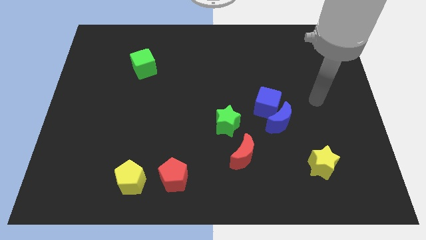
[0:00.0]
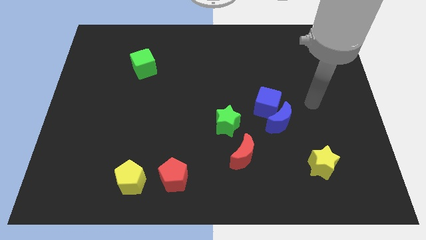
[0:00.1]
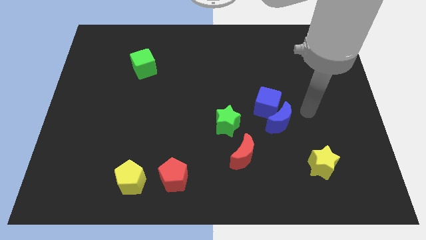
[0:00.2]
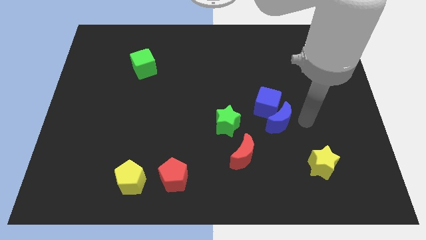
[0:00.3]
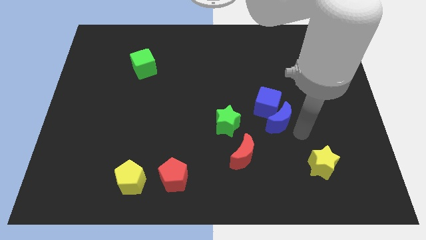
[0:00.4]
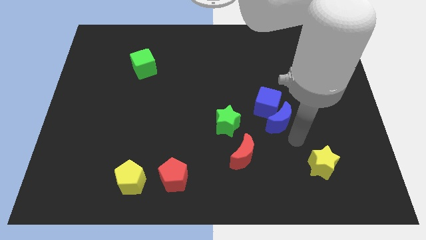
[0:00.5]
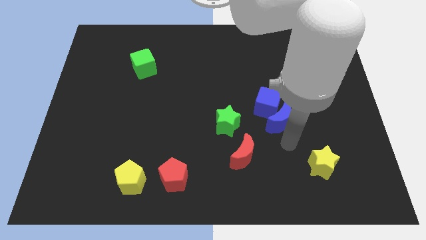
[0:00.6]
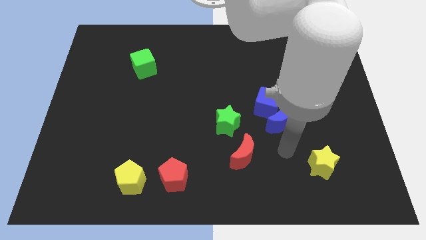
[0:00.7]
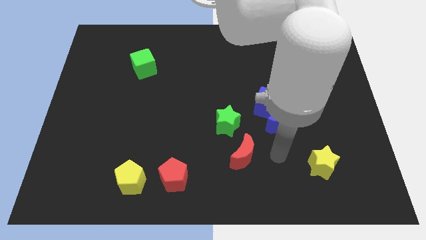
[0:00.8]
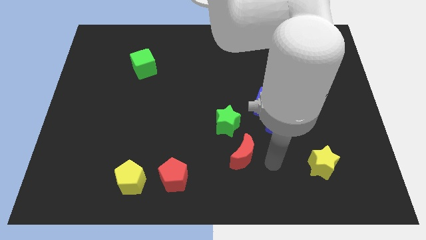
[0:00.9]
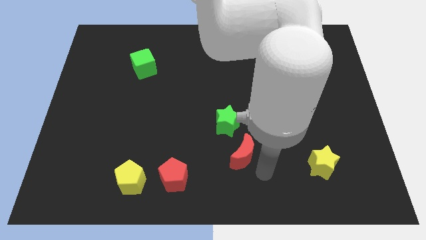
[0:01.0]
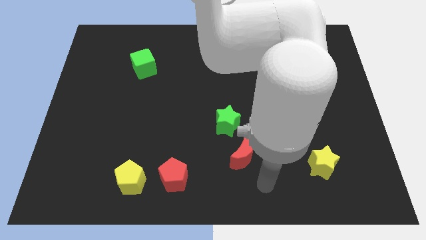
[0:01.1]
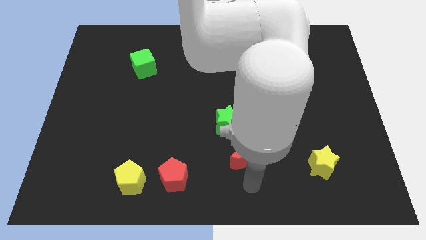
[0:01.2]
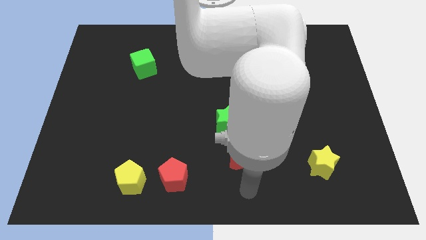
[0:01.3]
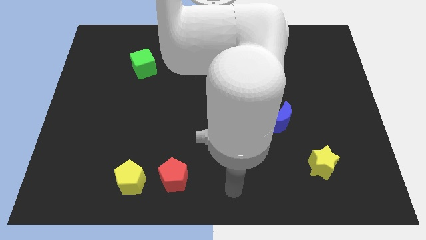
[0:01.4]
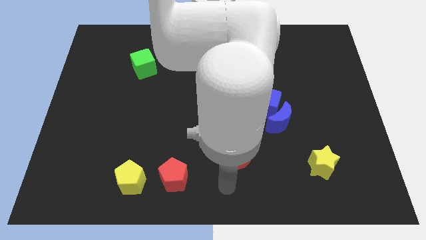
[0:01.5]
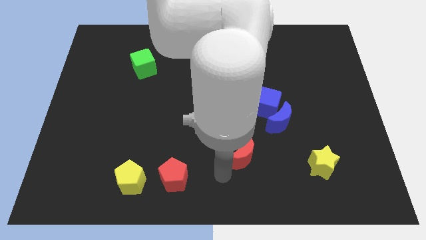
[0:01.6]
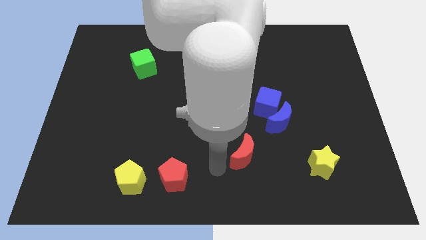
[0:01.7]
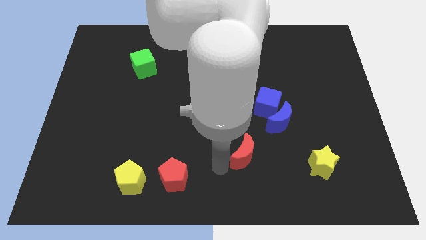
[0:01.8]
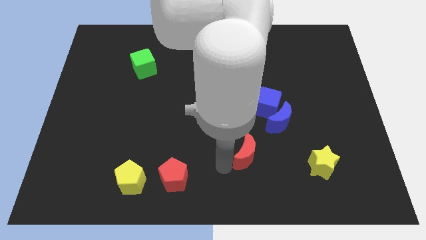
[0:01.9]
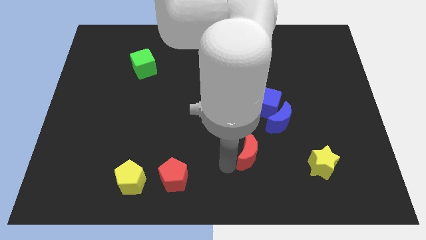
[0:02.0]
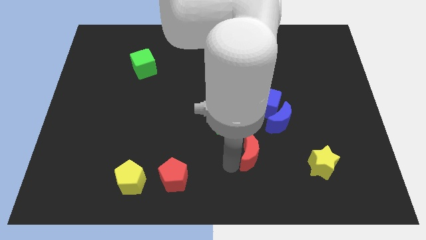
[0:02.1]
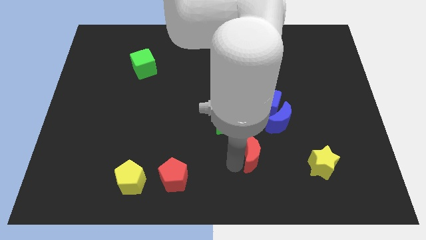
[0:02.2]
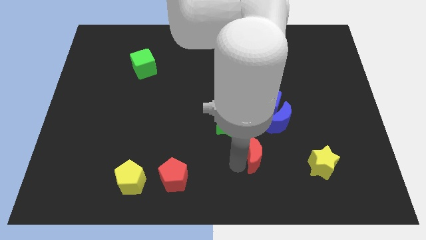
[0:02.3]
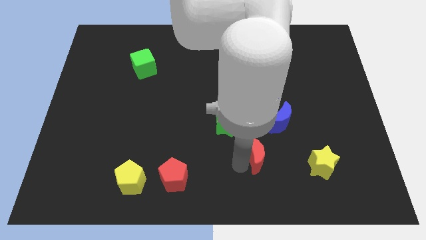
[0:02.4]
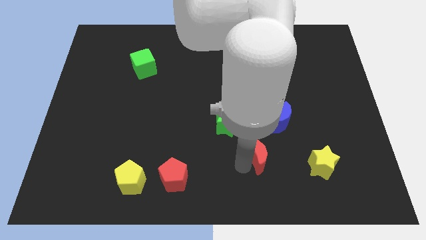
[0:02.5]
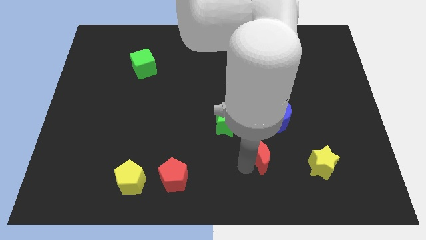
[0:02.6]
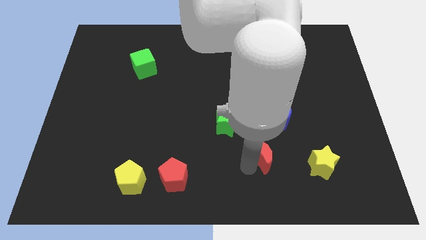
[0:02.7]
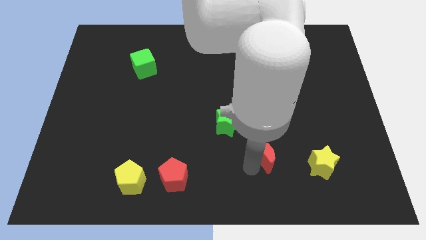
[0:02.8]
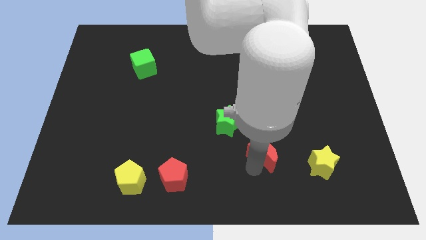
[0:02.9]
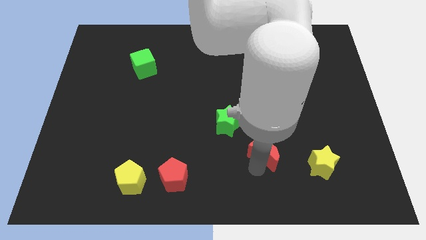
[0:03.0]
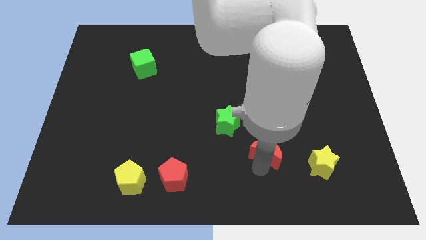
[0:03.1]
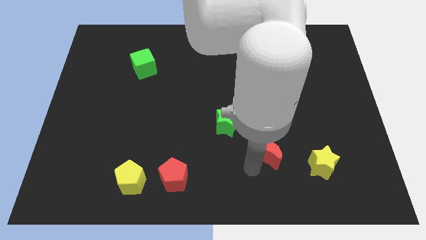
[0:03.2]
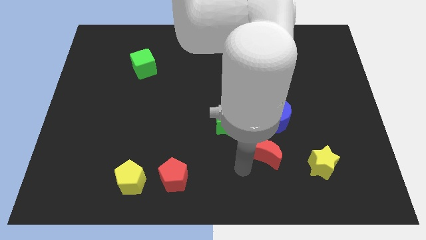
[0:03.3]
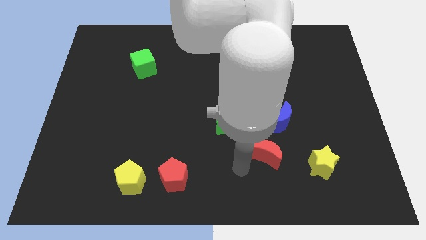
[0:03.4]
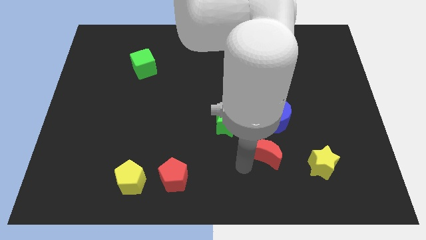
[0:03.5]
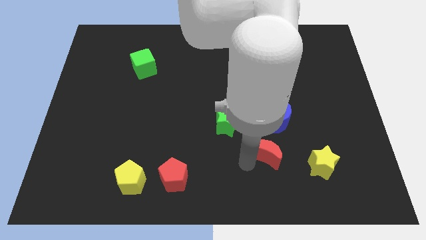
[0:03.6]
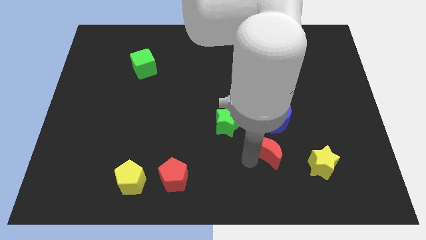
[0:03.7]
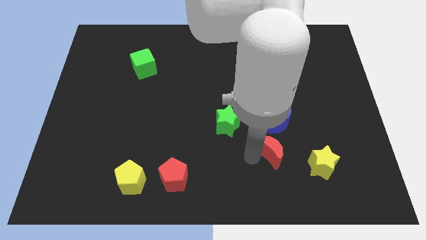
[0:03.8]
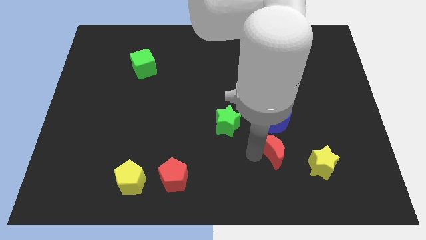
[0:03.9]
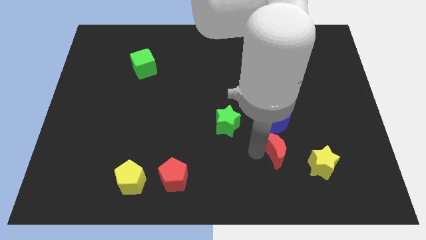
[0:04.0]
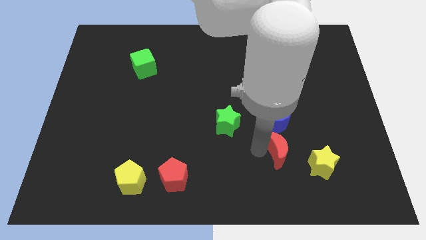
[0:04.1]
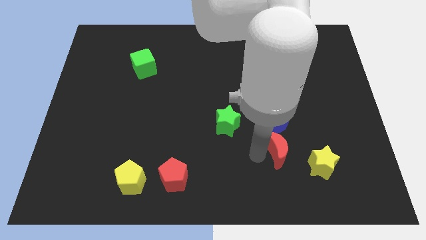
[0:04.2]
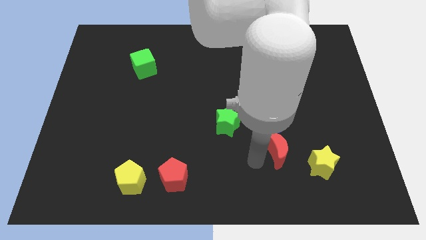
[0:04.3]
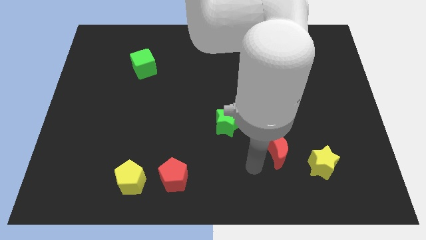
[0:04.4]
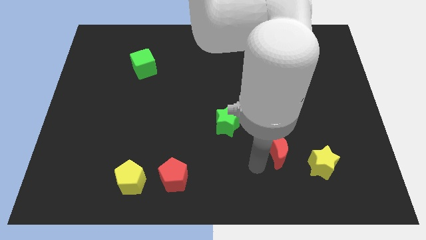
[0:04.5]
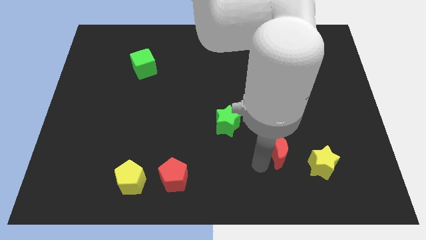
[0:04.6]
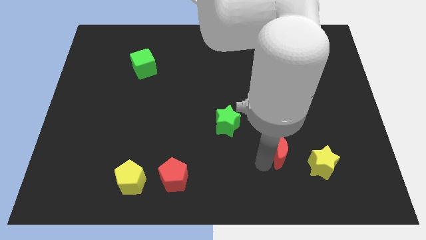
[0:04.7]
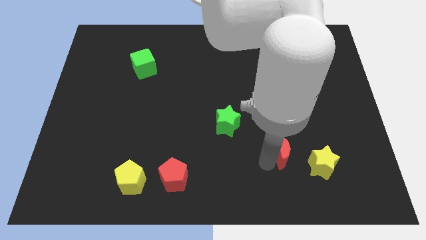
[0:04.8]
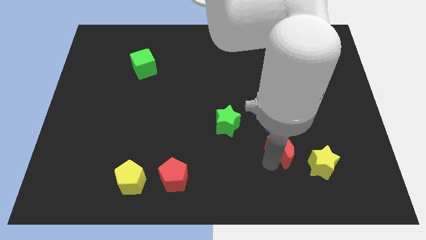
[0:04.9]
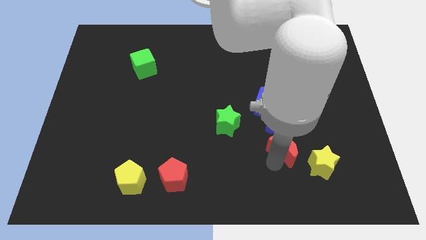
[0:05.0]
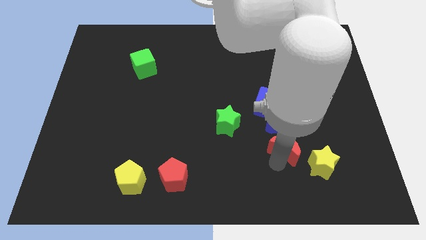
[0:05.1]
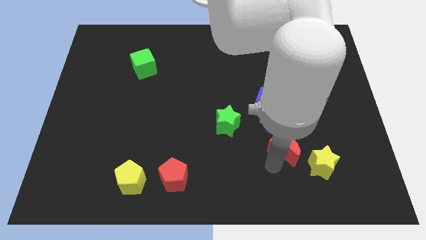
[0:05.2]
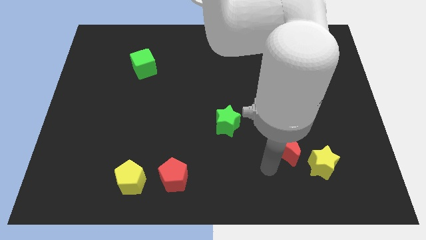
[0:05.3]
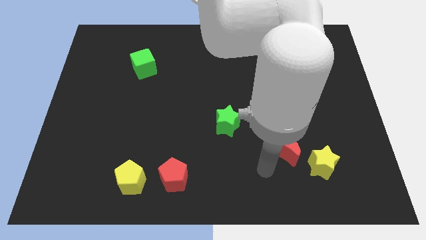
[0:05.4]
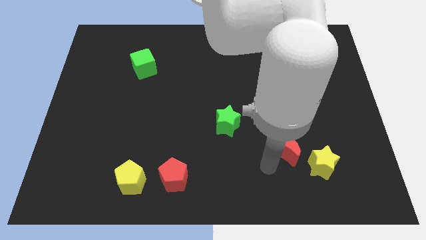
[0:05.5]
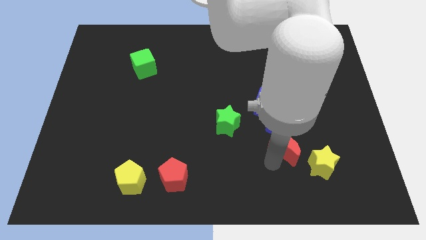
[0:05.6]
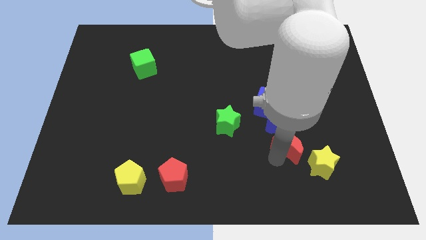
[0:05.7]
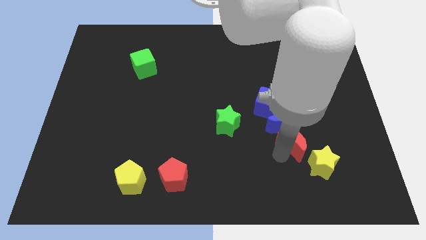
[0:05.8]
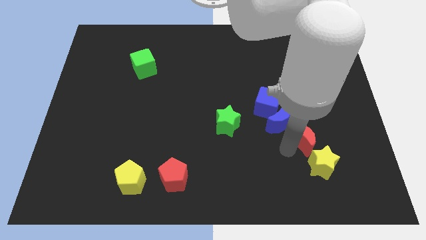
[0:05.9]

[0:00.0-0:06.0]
put the red moon above the yellow star

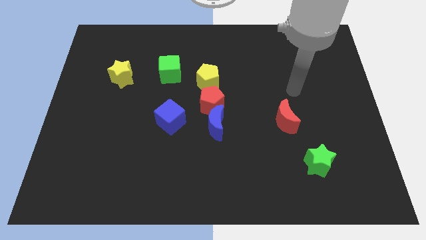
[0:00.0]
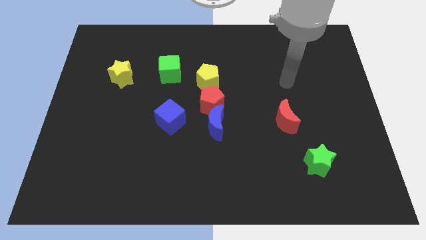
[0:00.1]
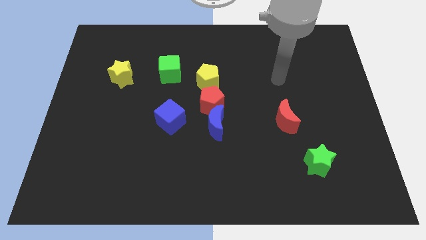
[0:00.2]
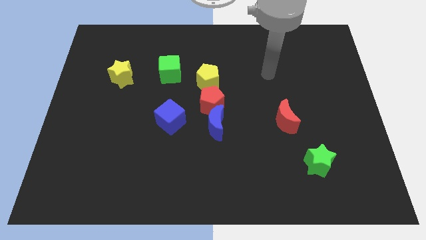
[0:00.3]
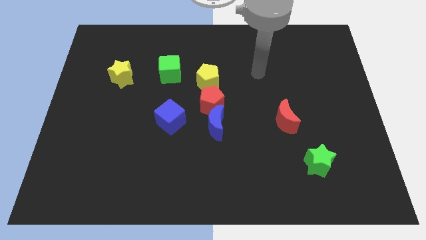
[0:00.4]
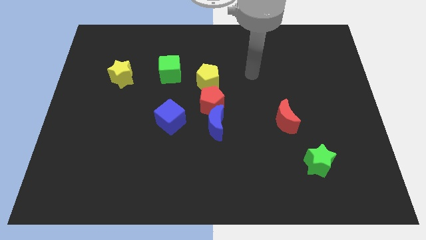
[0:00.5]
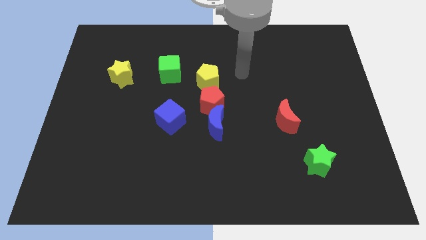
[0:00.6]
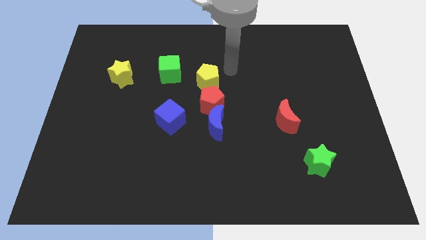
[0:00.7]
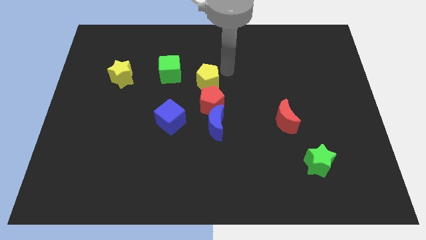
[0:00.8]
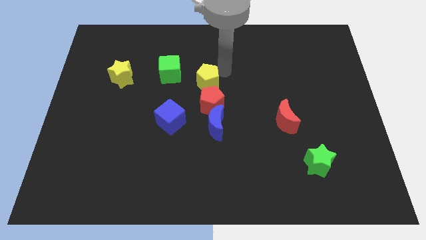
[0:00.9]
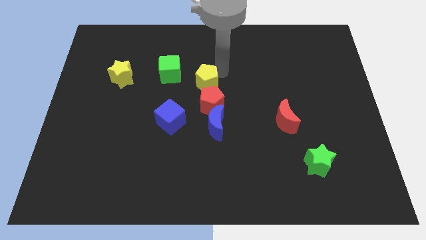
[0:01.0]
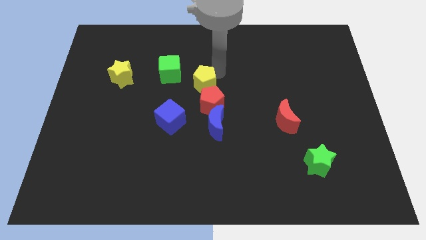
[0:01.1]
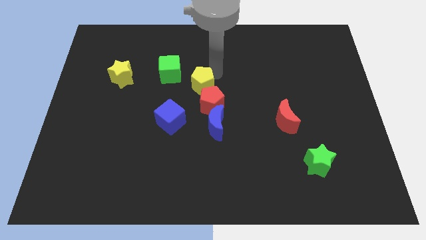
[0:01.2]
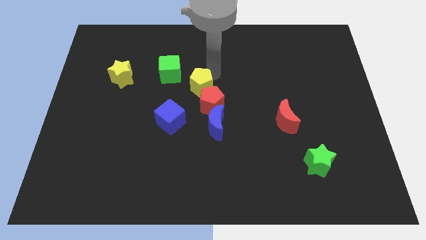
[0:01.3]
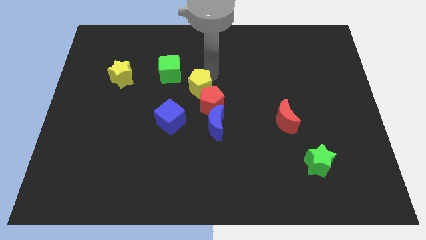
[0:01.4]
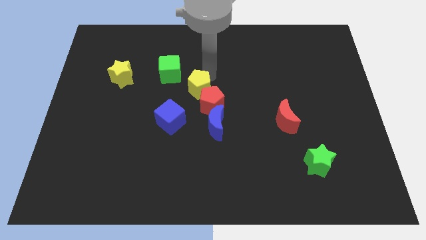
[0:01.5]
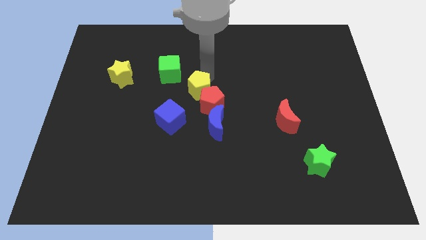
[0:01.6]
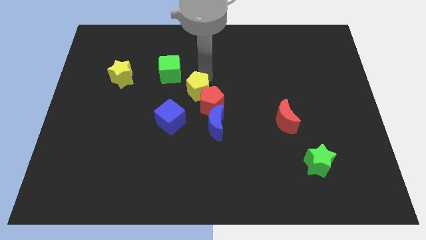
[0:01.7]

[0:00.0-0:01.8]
move the yellow pentagon left of the red pentagon
